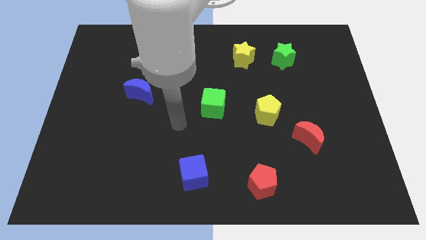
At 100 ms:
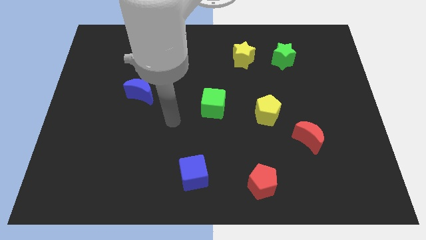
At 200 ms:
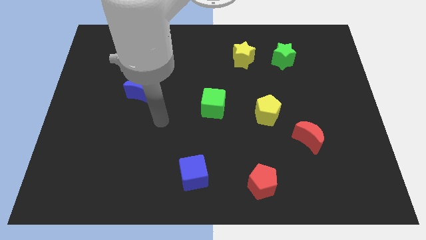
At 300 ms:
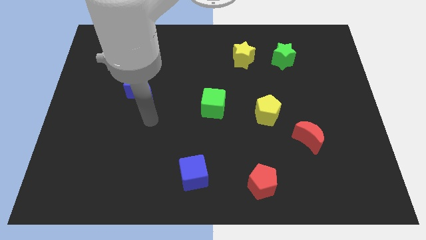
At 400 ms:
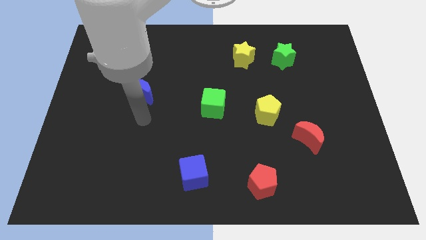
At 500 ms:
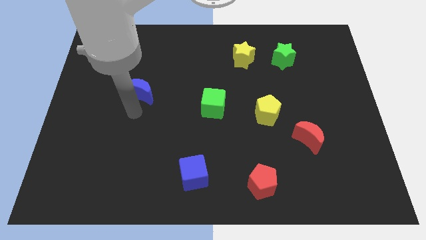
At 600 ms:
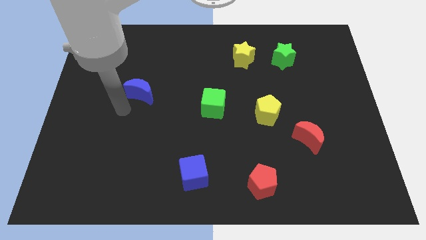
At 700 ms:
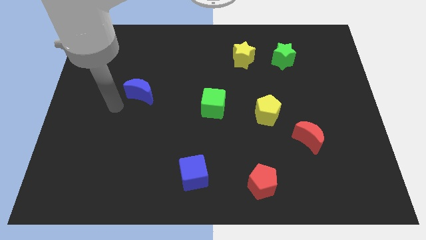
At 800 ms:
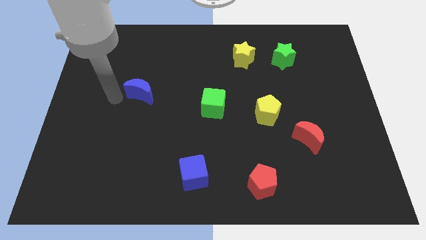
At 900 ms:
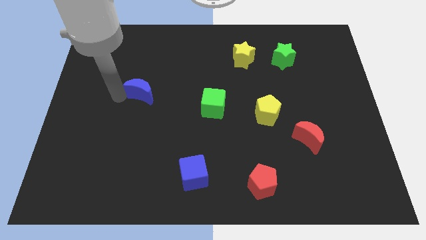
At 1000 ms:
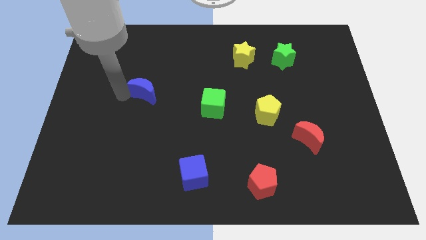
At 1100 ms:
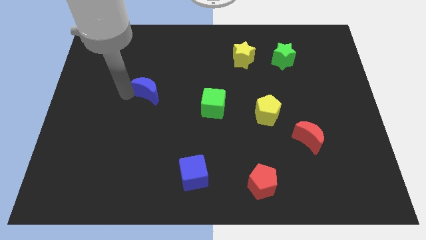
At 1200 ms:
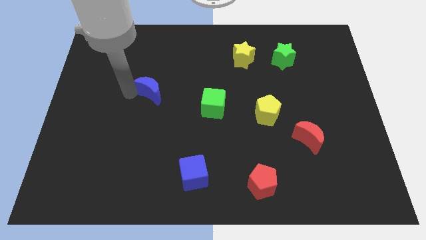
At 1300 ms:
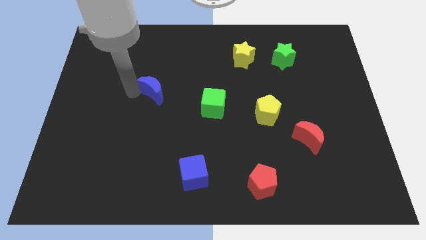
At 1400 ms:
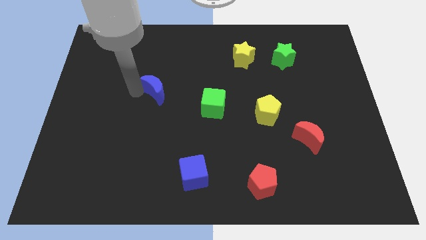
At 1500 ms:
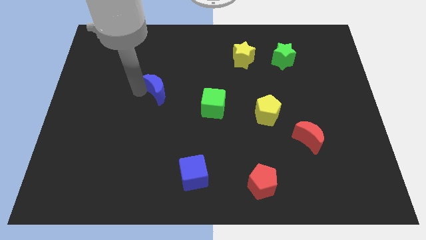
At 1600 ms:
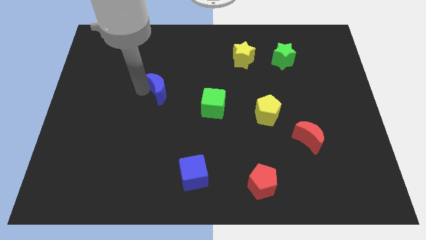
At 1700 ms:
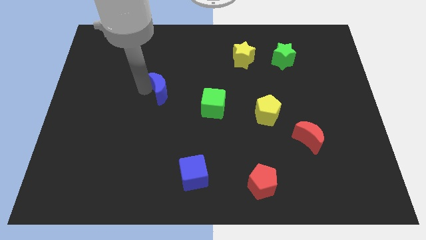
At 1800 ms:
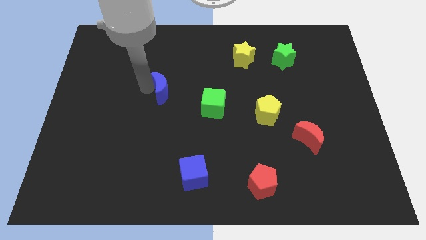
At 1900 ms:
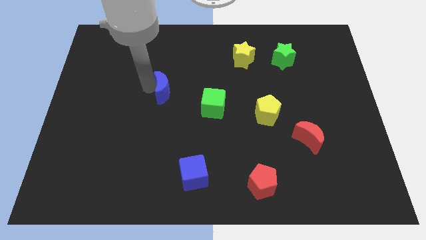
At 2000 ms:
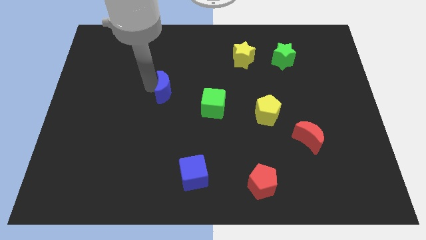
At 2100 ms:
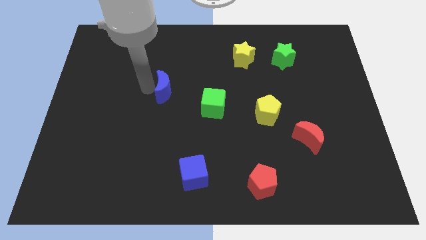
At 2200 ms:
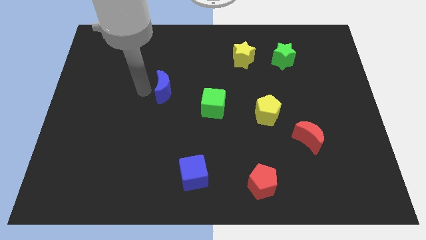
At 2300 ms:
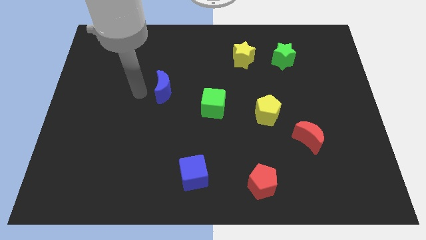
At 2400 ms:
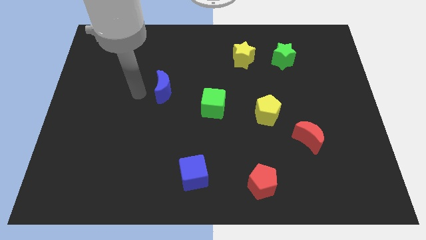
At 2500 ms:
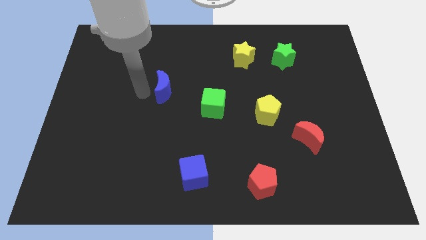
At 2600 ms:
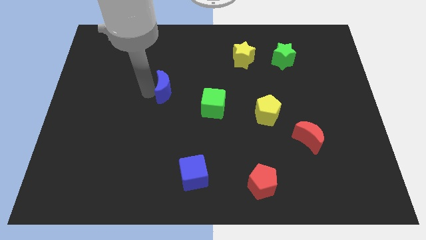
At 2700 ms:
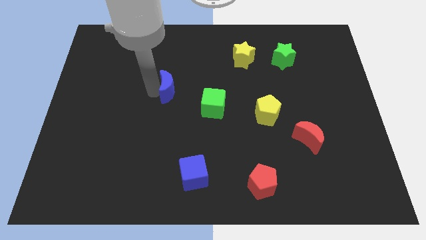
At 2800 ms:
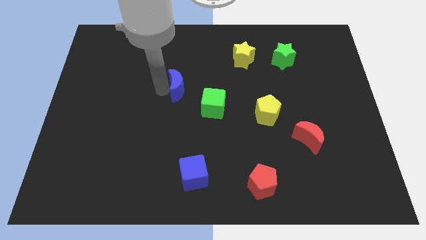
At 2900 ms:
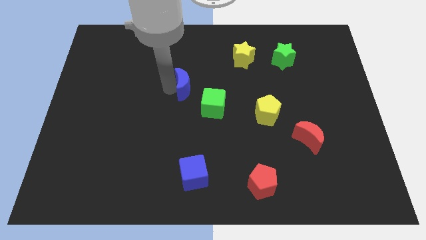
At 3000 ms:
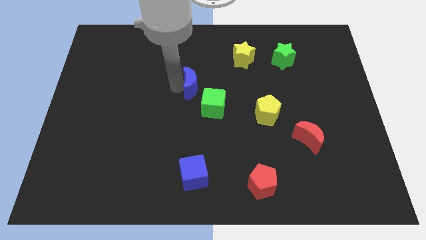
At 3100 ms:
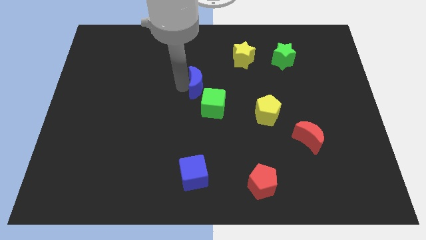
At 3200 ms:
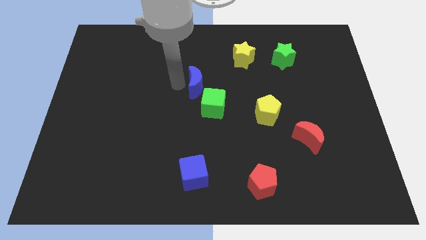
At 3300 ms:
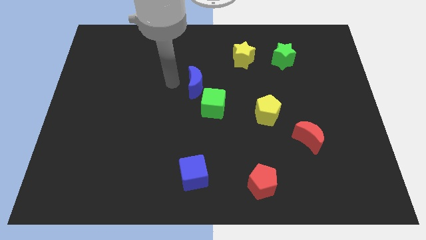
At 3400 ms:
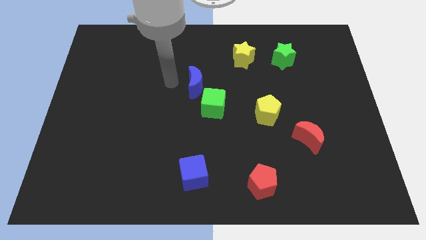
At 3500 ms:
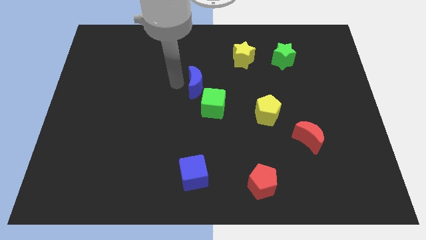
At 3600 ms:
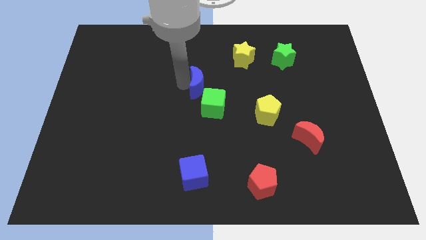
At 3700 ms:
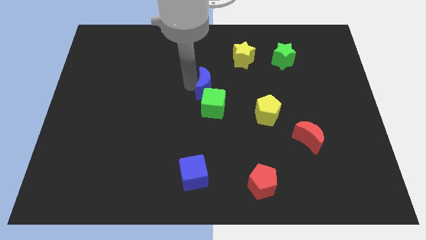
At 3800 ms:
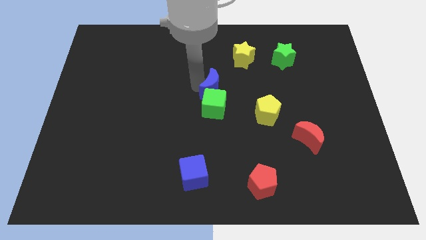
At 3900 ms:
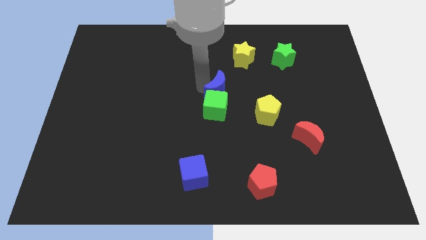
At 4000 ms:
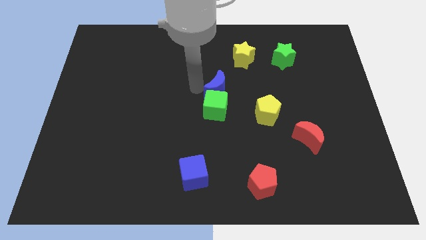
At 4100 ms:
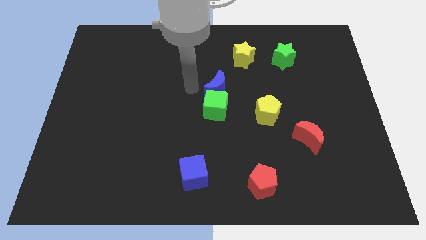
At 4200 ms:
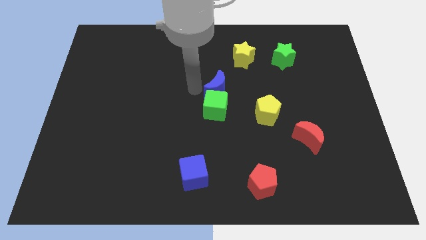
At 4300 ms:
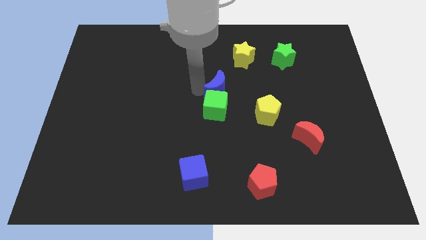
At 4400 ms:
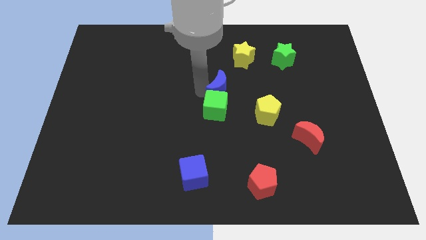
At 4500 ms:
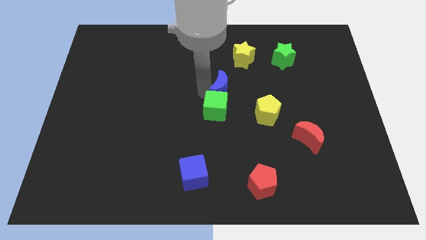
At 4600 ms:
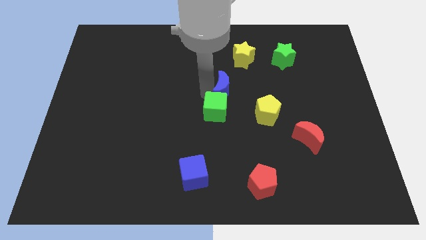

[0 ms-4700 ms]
push the blue moon to the right

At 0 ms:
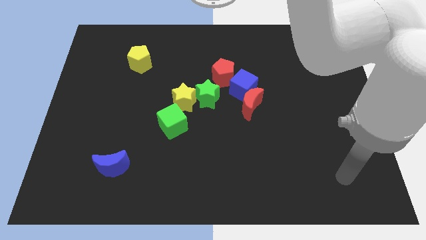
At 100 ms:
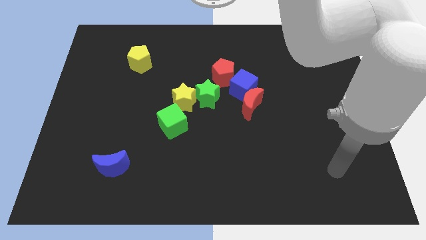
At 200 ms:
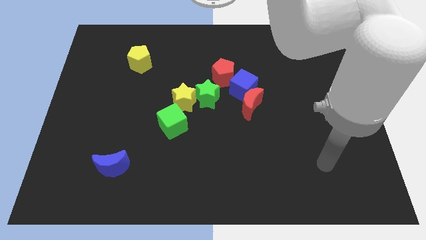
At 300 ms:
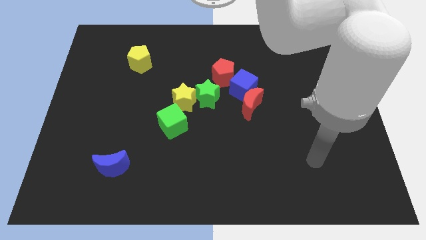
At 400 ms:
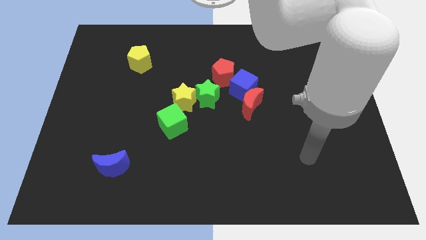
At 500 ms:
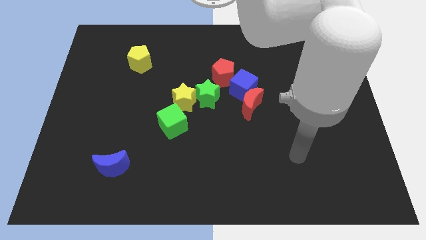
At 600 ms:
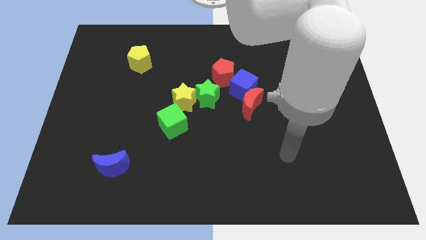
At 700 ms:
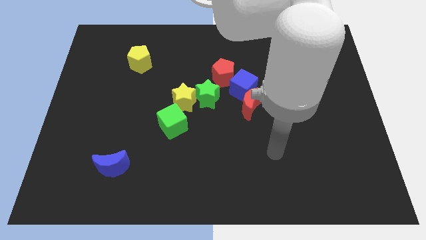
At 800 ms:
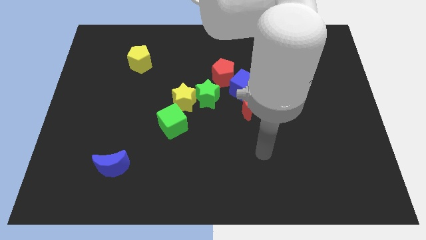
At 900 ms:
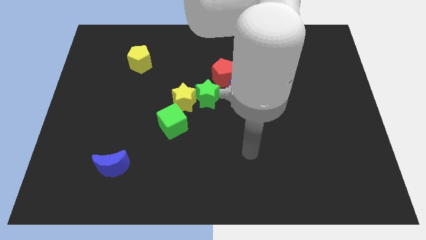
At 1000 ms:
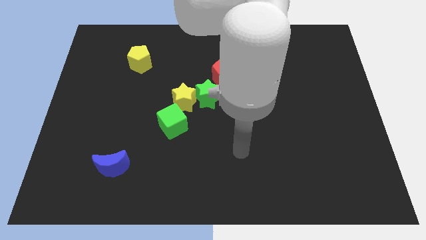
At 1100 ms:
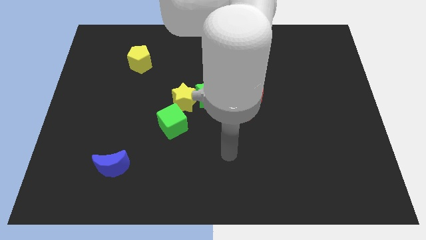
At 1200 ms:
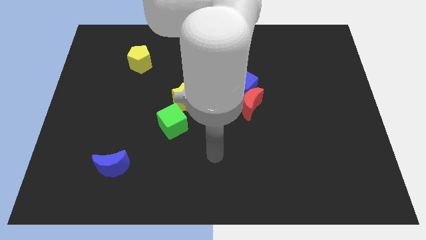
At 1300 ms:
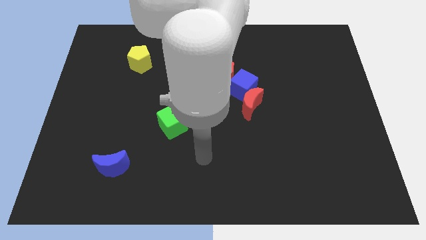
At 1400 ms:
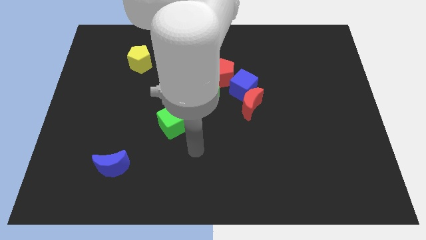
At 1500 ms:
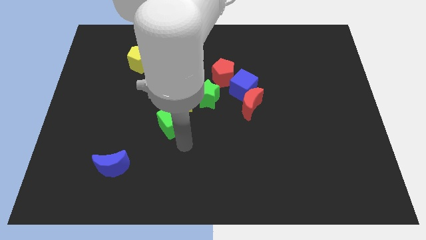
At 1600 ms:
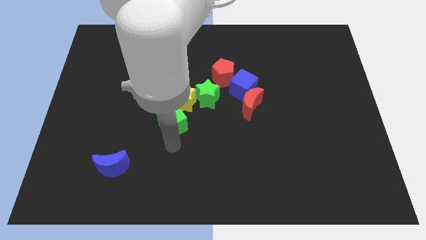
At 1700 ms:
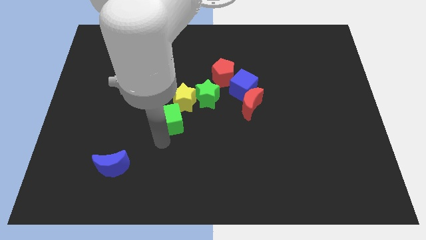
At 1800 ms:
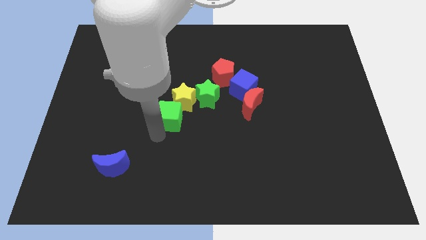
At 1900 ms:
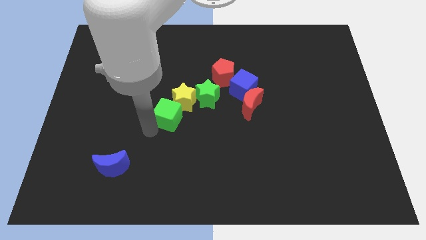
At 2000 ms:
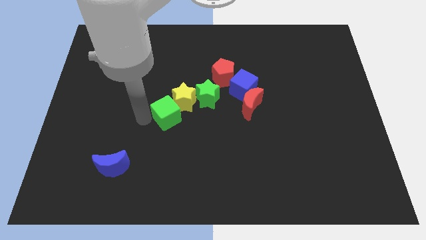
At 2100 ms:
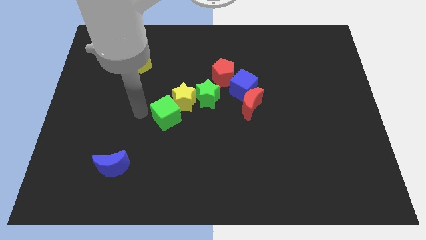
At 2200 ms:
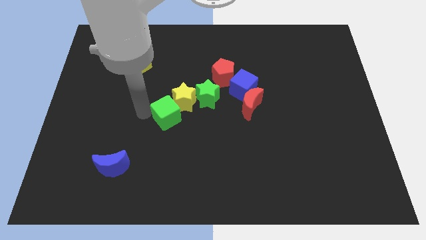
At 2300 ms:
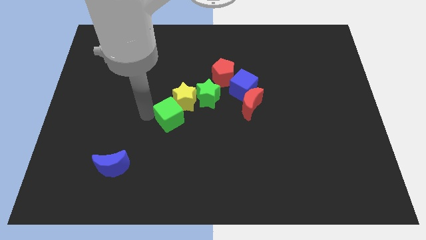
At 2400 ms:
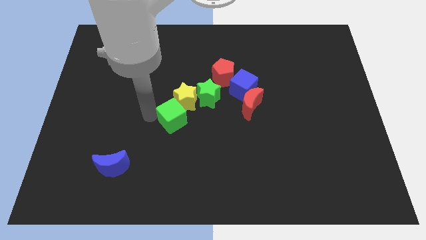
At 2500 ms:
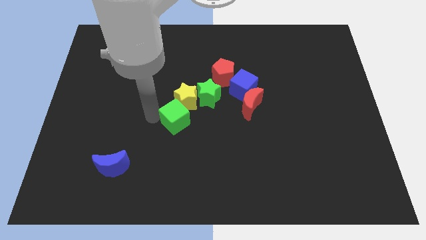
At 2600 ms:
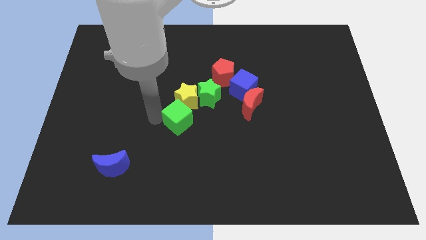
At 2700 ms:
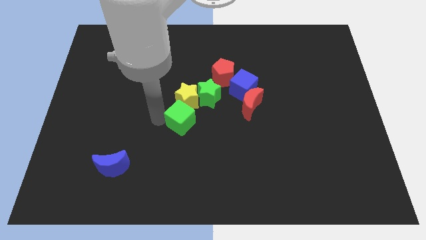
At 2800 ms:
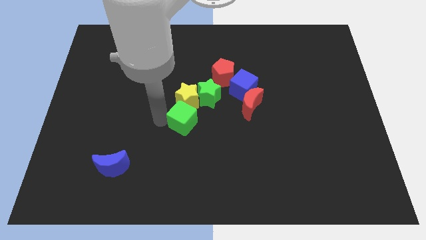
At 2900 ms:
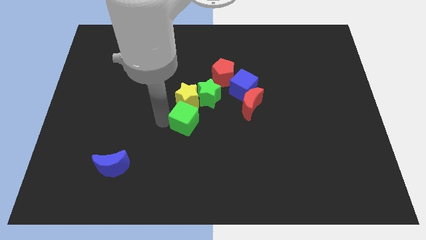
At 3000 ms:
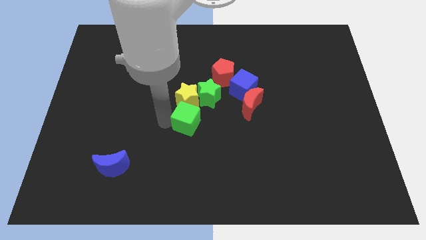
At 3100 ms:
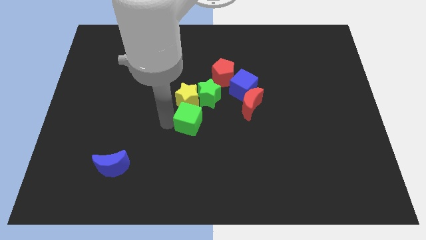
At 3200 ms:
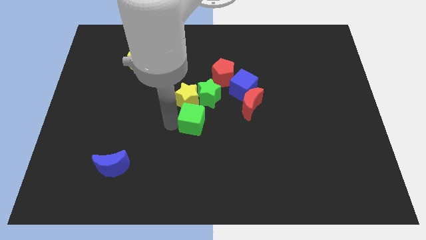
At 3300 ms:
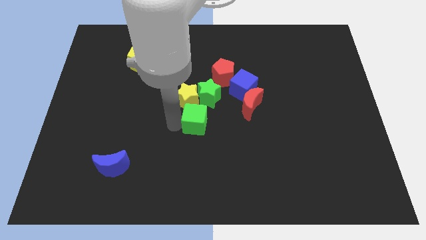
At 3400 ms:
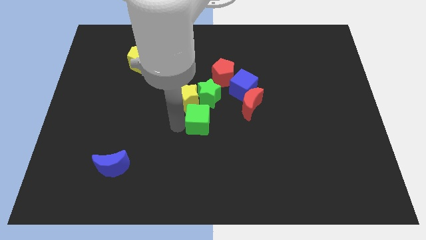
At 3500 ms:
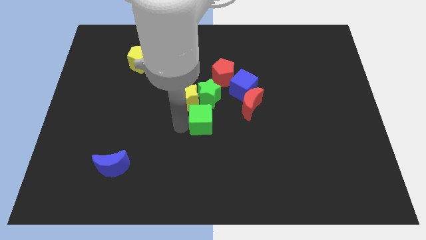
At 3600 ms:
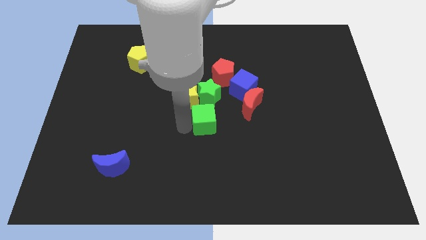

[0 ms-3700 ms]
move the green cube a little bit to the right
